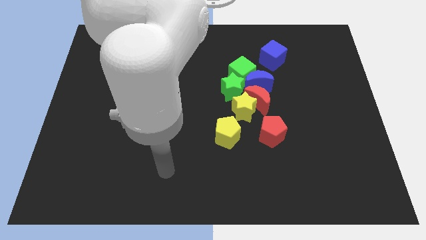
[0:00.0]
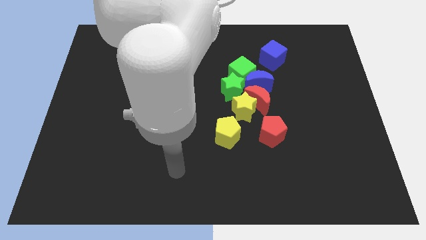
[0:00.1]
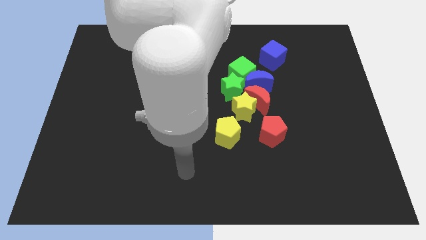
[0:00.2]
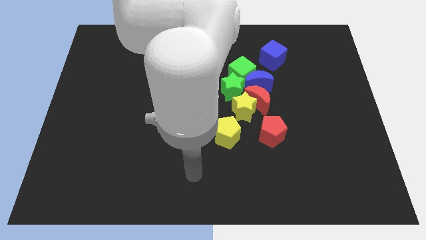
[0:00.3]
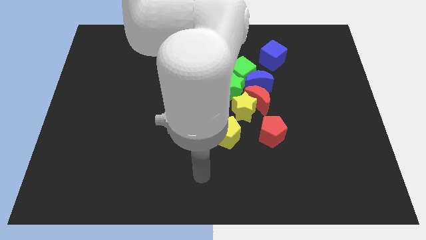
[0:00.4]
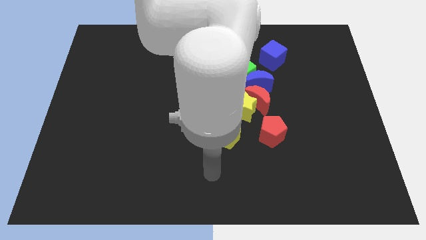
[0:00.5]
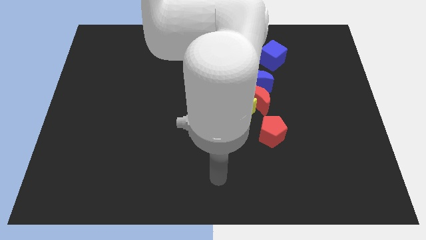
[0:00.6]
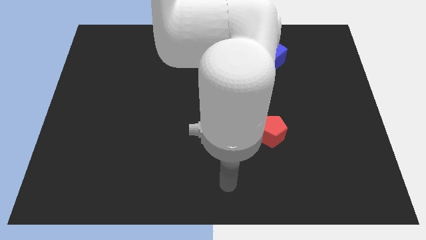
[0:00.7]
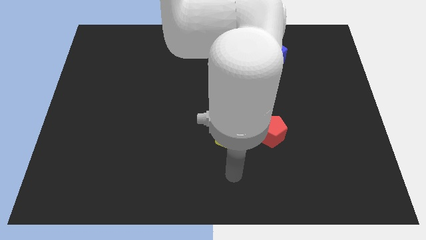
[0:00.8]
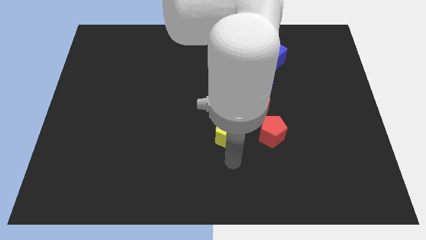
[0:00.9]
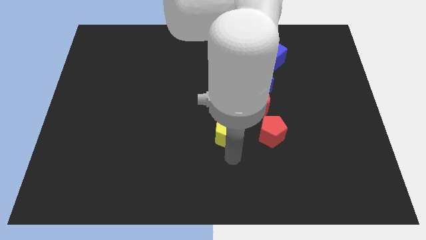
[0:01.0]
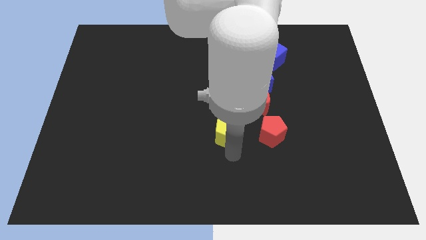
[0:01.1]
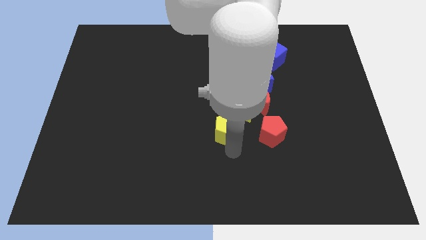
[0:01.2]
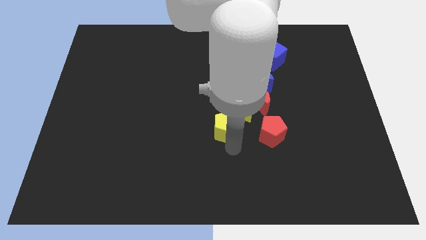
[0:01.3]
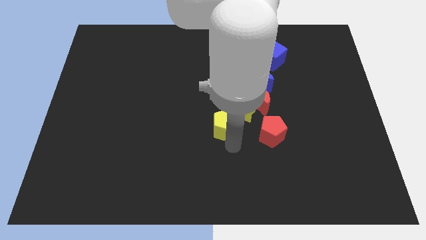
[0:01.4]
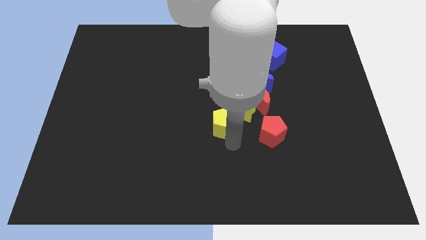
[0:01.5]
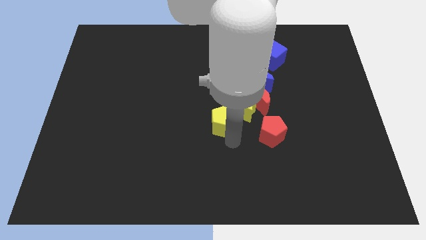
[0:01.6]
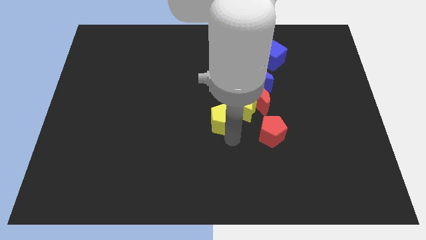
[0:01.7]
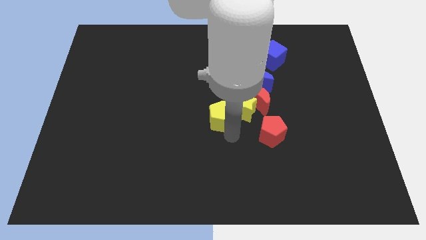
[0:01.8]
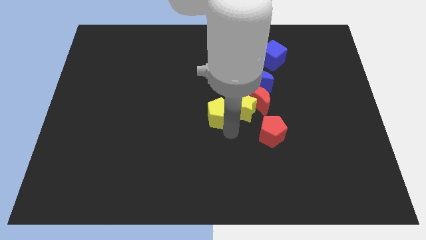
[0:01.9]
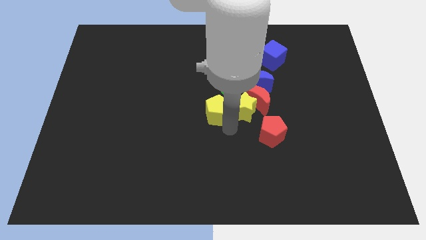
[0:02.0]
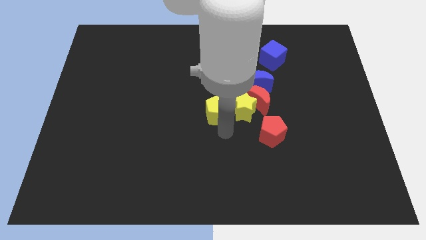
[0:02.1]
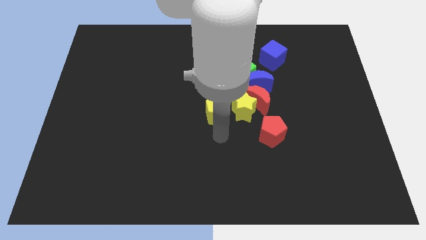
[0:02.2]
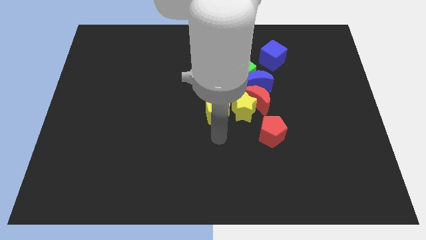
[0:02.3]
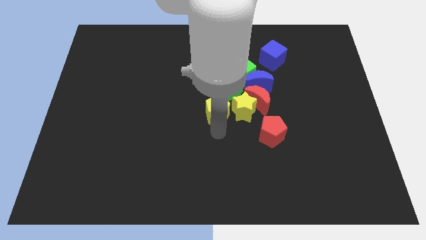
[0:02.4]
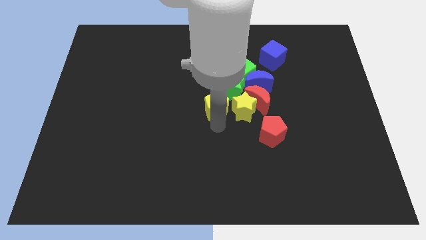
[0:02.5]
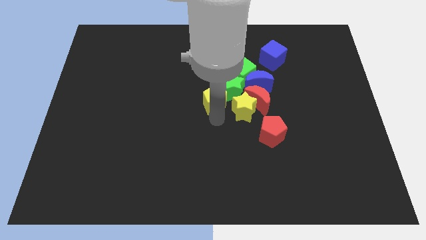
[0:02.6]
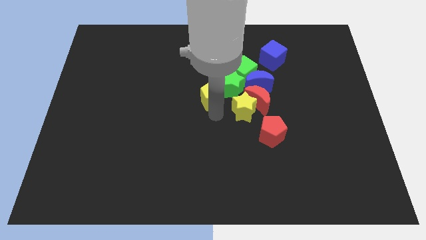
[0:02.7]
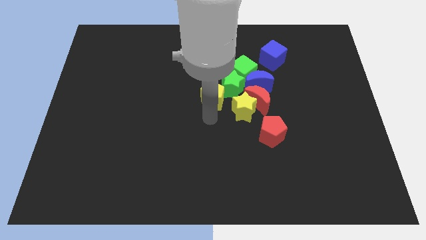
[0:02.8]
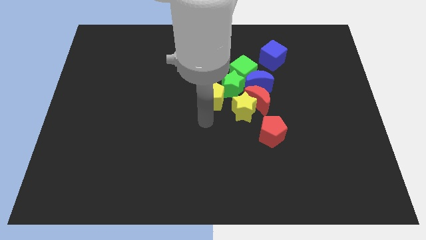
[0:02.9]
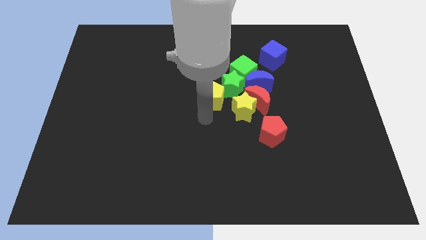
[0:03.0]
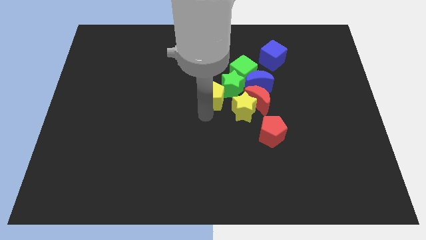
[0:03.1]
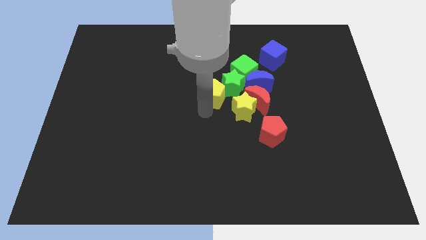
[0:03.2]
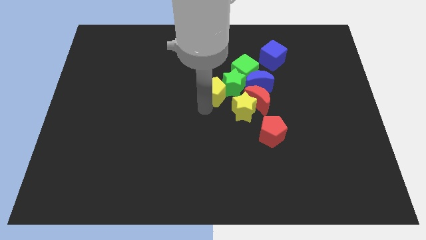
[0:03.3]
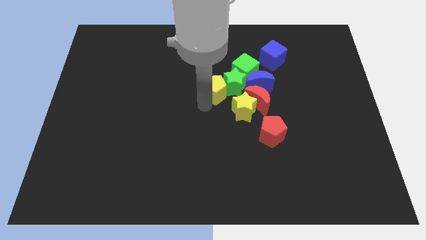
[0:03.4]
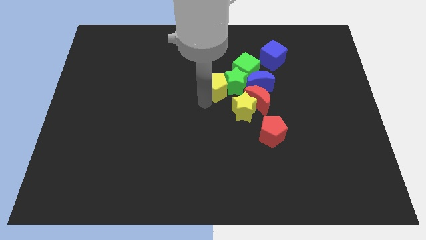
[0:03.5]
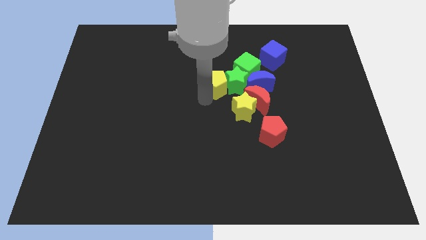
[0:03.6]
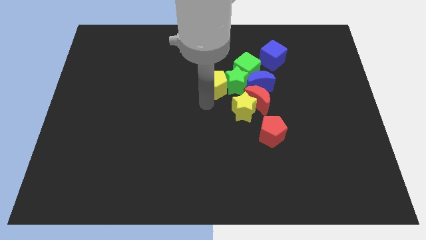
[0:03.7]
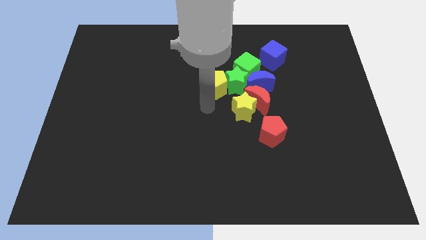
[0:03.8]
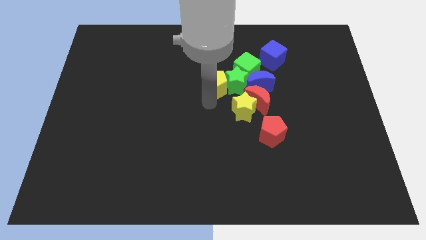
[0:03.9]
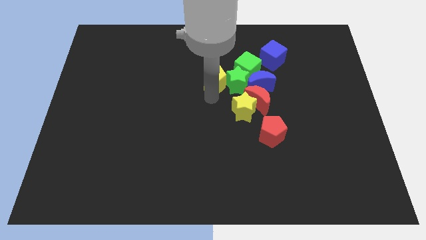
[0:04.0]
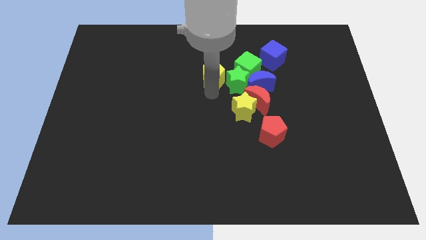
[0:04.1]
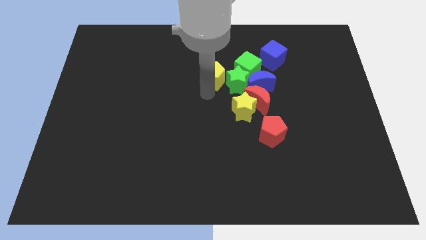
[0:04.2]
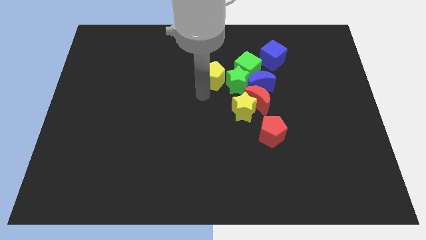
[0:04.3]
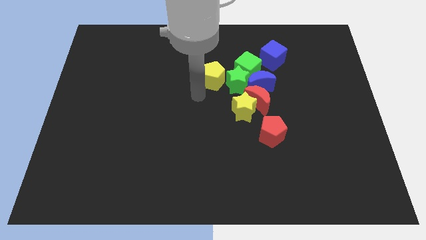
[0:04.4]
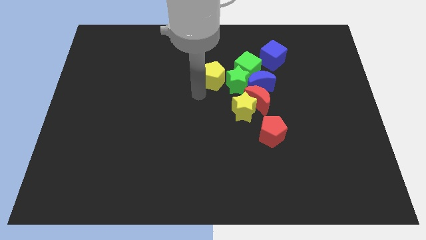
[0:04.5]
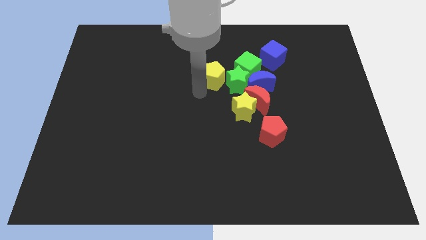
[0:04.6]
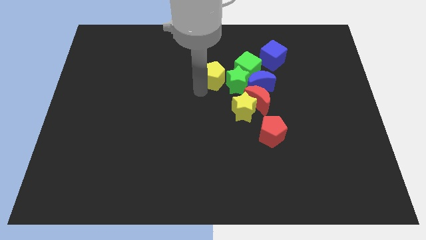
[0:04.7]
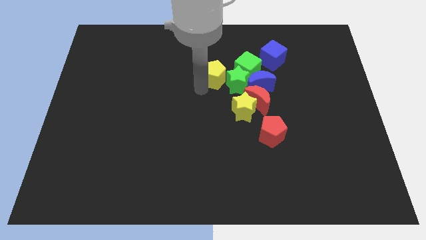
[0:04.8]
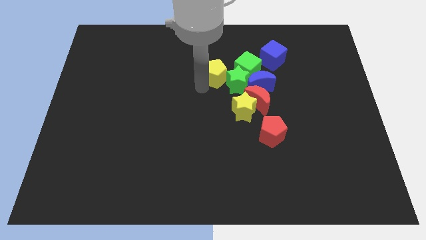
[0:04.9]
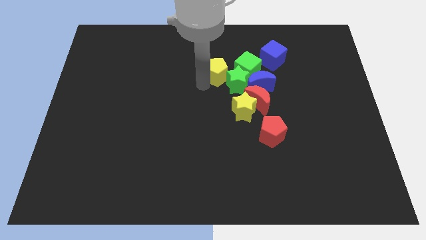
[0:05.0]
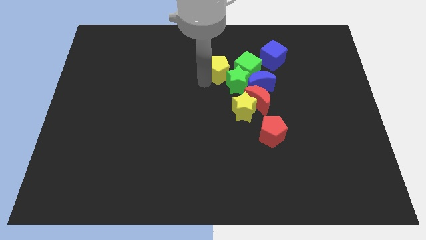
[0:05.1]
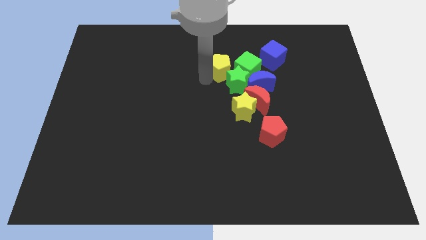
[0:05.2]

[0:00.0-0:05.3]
move the yellow pentagon above the green star

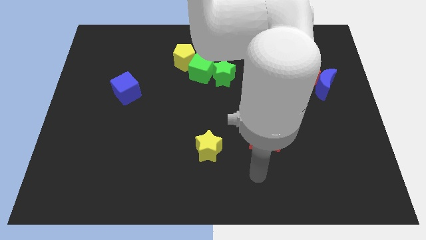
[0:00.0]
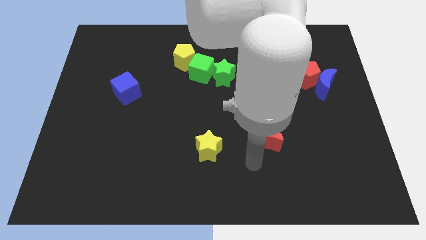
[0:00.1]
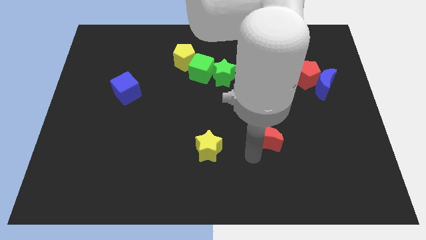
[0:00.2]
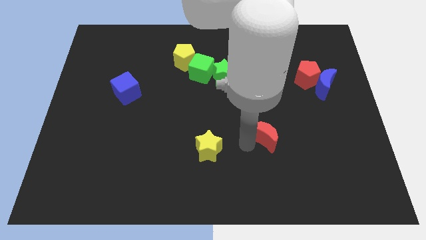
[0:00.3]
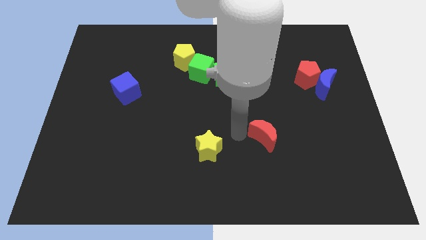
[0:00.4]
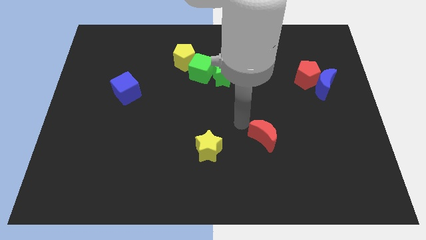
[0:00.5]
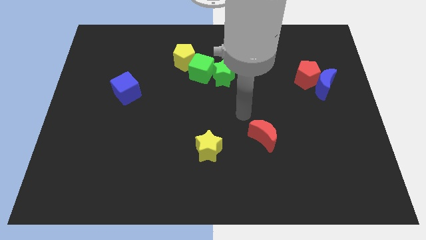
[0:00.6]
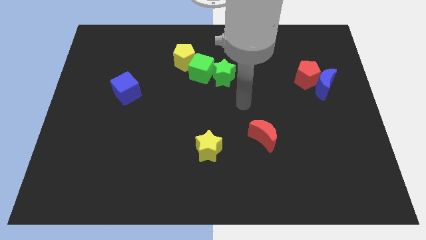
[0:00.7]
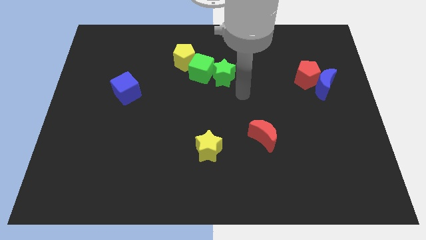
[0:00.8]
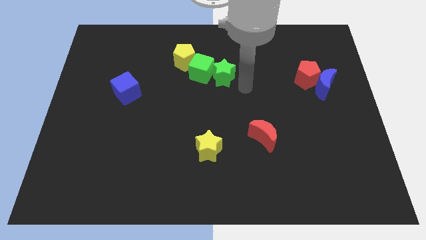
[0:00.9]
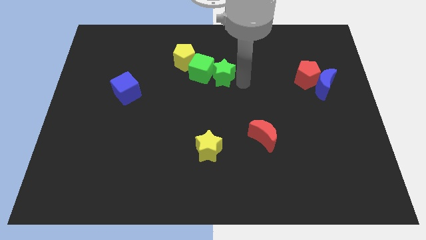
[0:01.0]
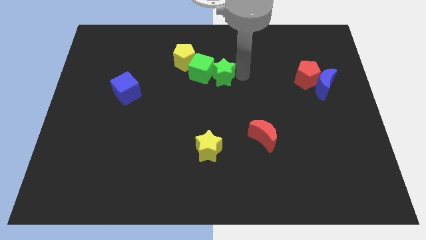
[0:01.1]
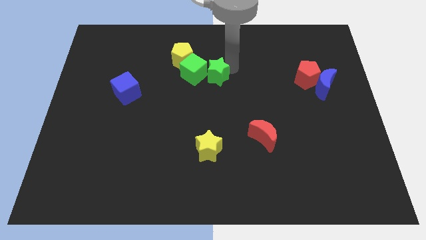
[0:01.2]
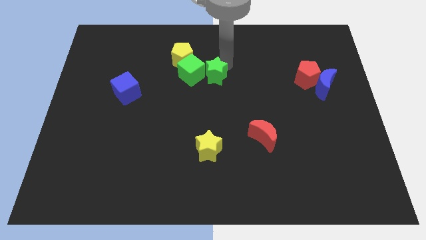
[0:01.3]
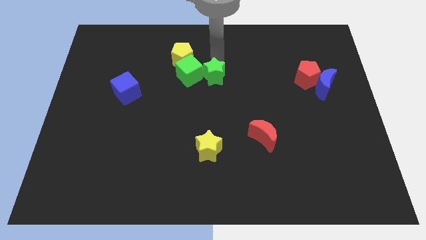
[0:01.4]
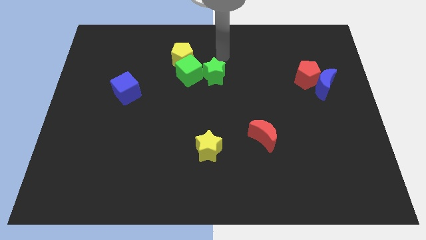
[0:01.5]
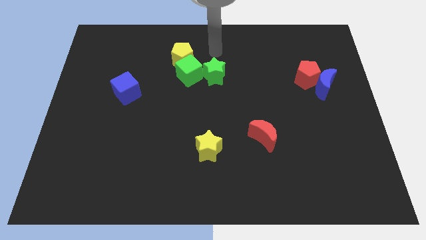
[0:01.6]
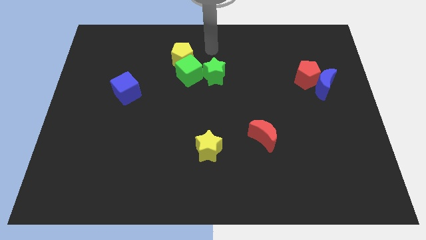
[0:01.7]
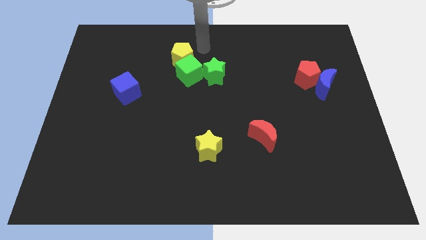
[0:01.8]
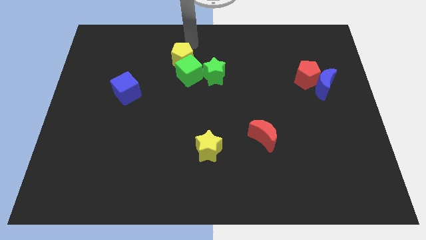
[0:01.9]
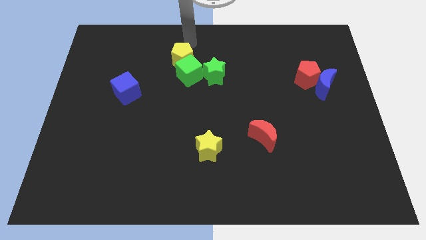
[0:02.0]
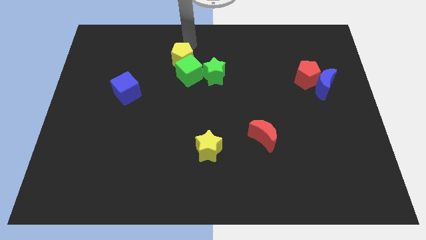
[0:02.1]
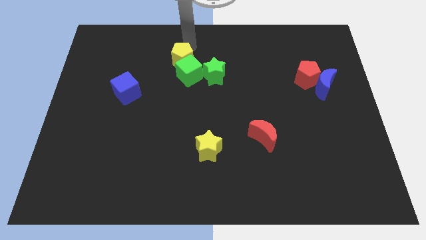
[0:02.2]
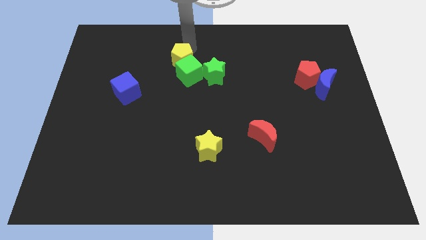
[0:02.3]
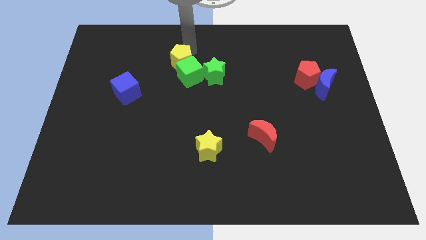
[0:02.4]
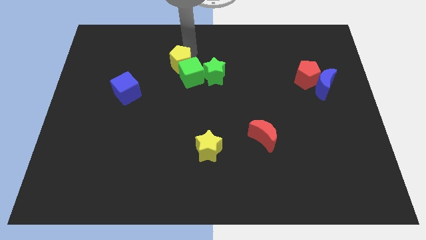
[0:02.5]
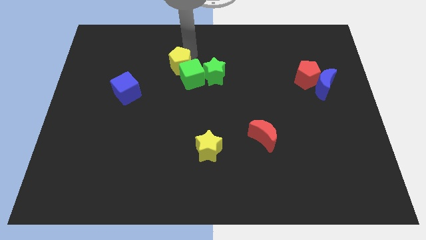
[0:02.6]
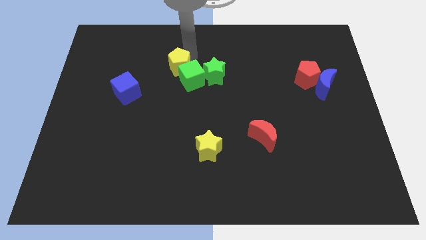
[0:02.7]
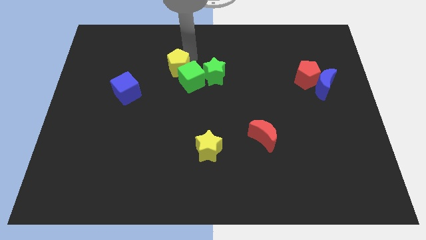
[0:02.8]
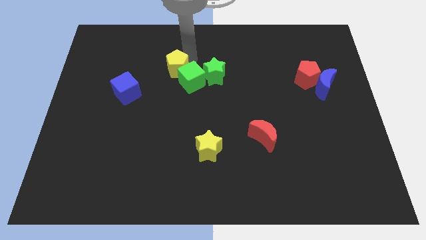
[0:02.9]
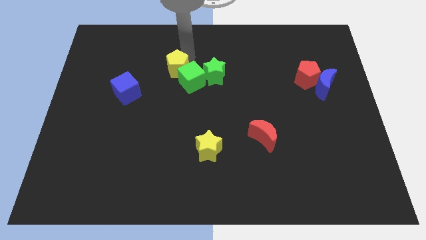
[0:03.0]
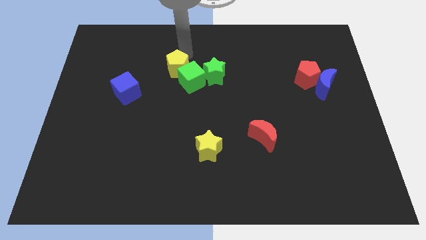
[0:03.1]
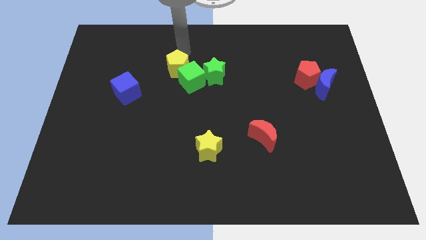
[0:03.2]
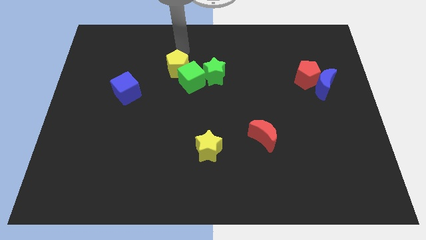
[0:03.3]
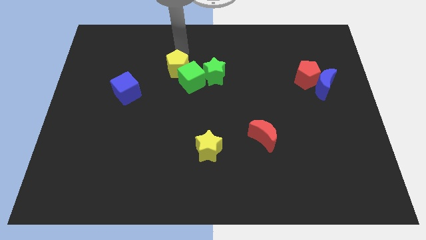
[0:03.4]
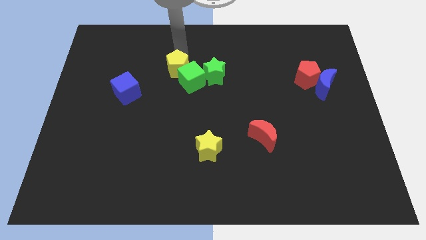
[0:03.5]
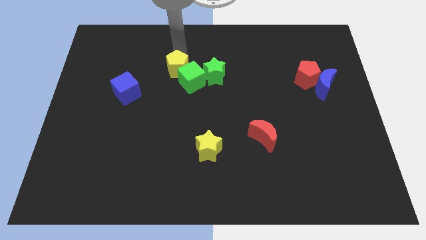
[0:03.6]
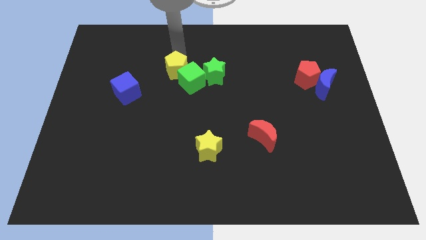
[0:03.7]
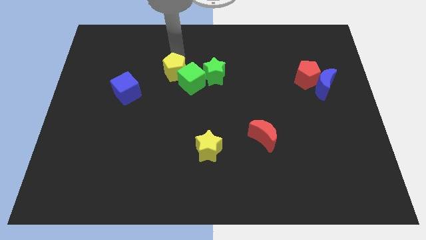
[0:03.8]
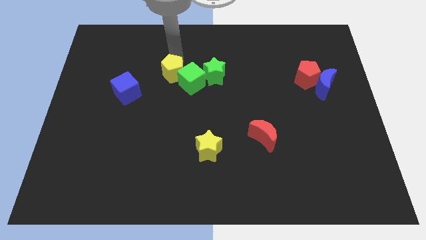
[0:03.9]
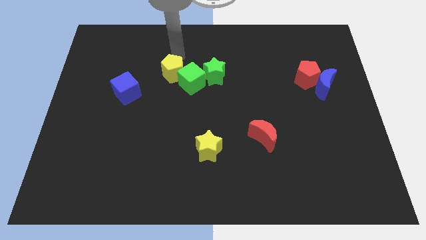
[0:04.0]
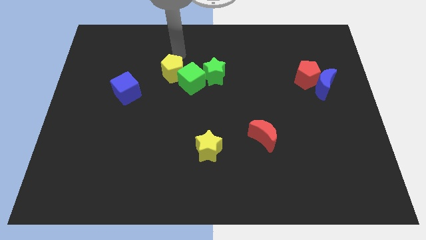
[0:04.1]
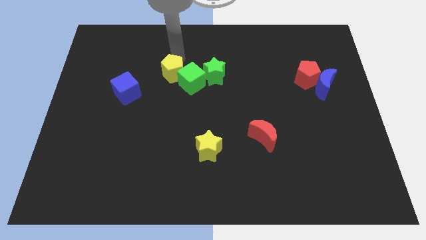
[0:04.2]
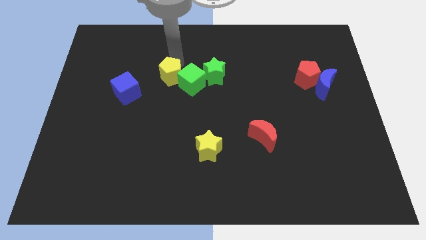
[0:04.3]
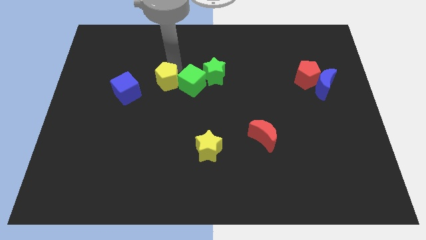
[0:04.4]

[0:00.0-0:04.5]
move the yellow pentagon to the right side of the blue cube
